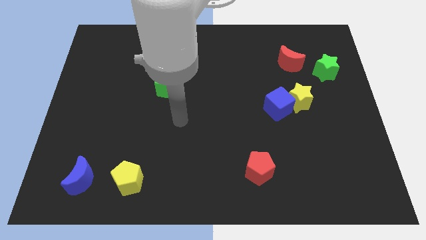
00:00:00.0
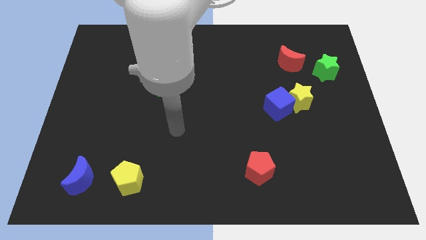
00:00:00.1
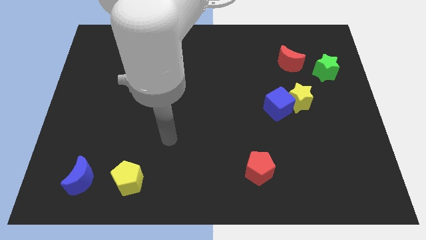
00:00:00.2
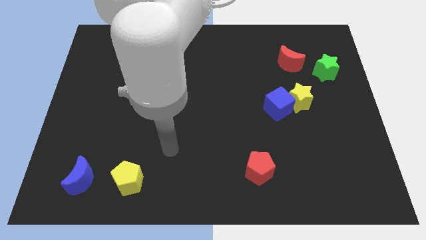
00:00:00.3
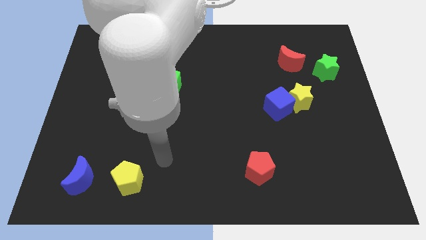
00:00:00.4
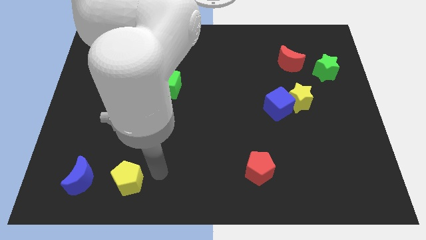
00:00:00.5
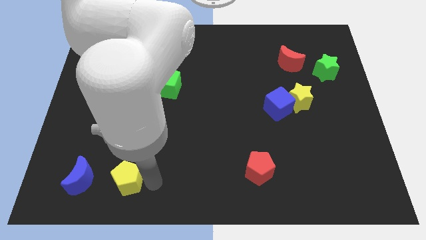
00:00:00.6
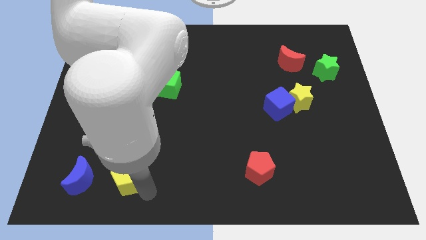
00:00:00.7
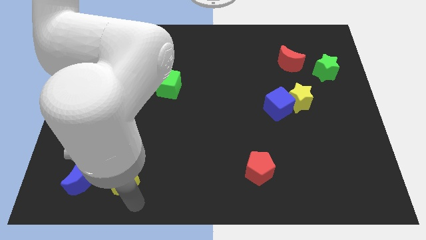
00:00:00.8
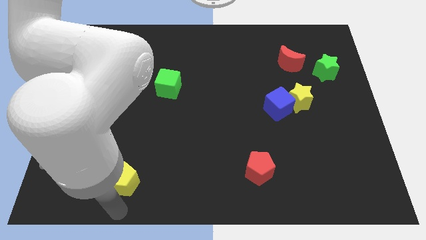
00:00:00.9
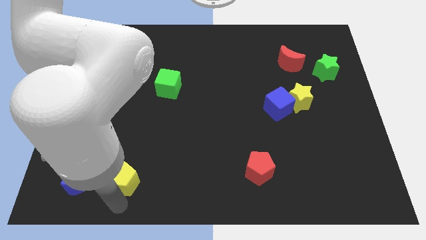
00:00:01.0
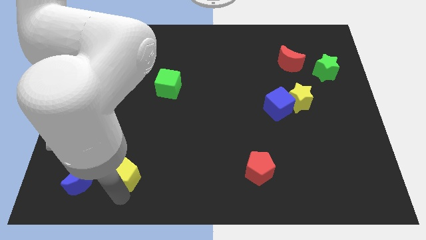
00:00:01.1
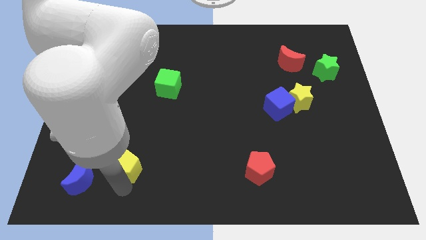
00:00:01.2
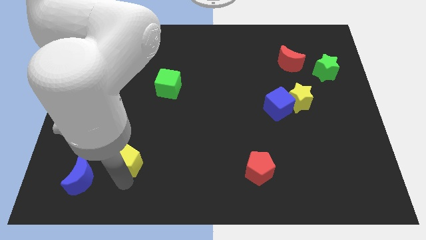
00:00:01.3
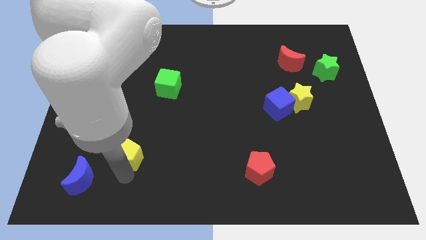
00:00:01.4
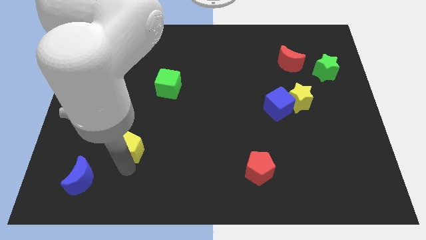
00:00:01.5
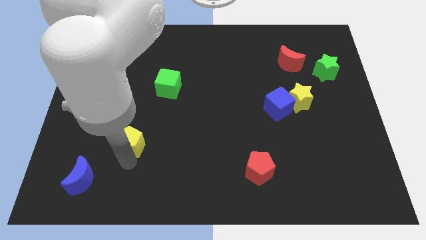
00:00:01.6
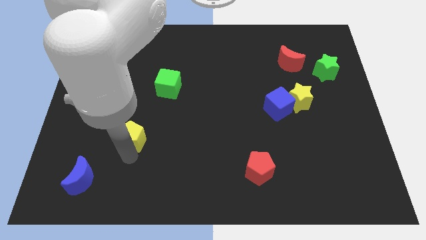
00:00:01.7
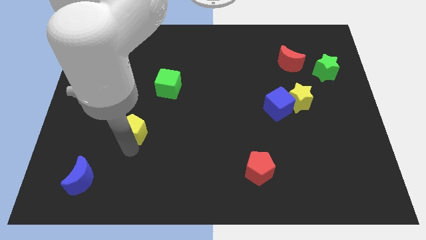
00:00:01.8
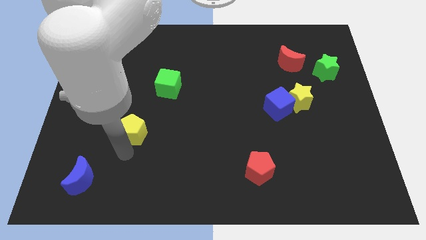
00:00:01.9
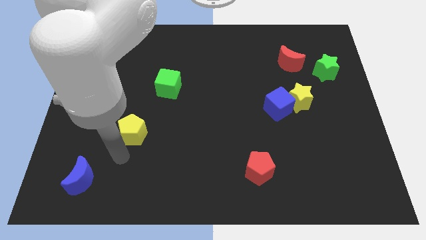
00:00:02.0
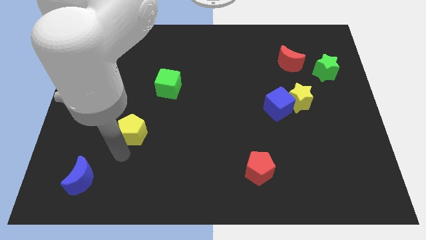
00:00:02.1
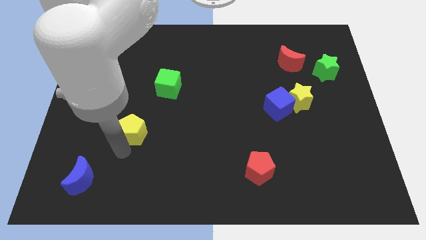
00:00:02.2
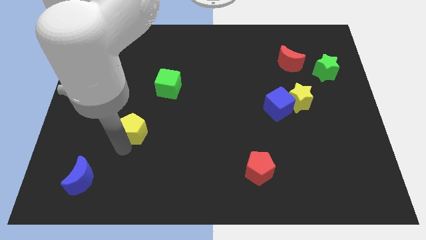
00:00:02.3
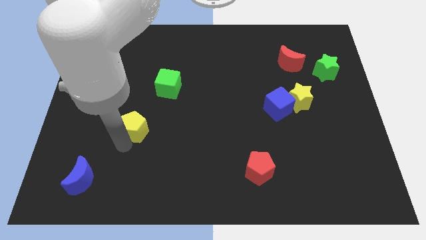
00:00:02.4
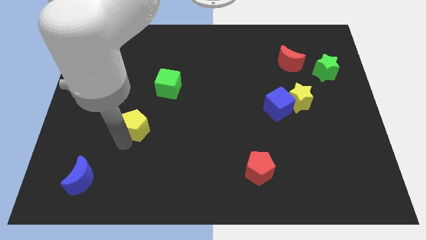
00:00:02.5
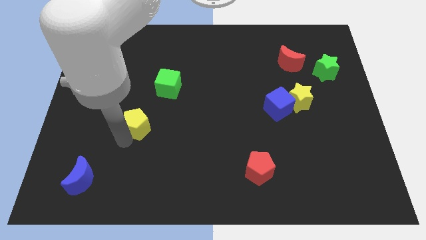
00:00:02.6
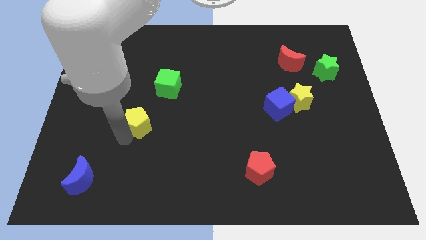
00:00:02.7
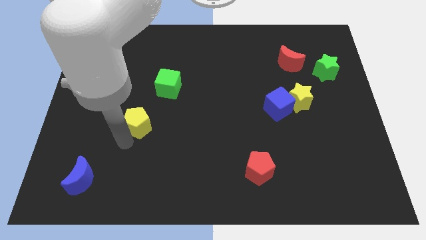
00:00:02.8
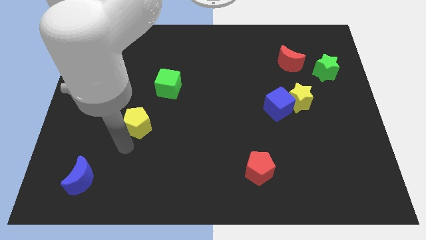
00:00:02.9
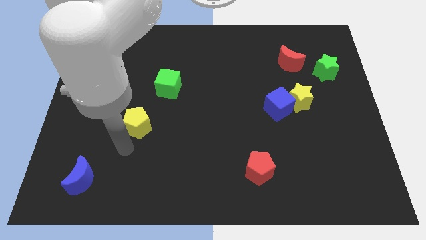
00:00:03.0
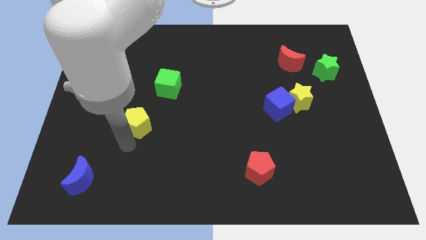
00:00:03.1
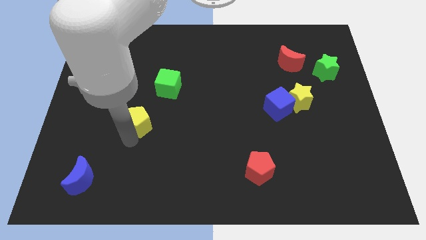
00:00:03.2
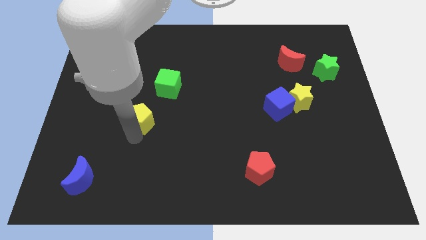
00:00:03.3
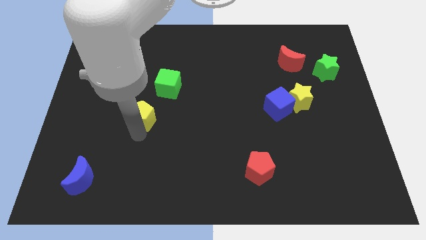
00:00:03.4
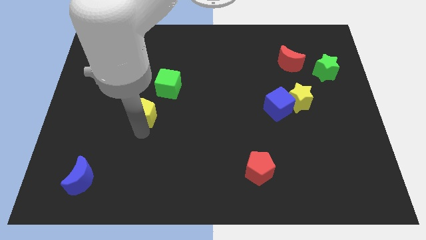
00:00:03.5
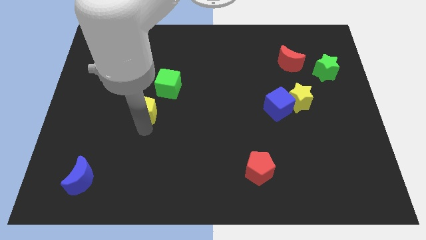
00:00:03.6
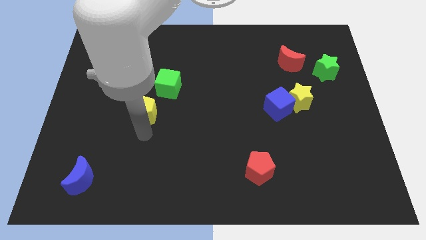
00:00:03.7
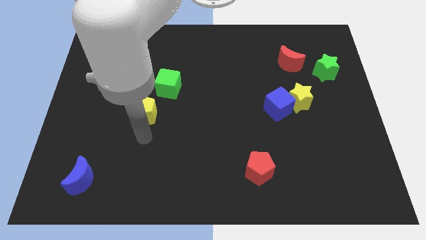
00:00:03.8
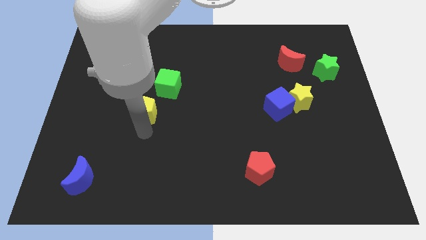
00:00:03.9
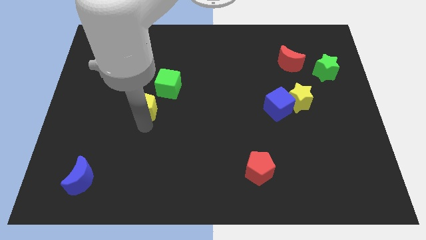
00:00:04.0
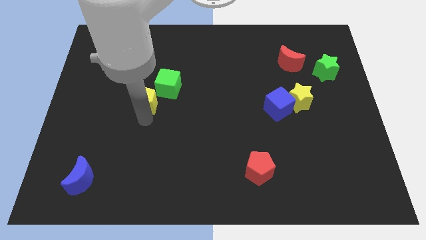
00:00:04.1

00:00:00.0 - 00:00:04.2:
slide the yellow pentagon upwards

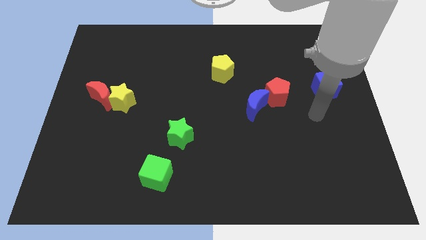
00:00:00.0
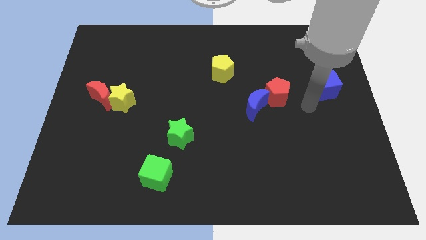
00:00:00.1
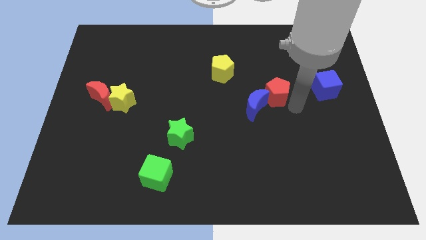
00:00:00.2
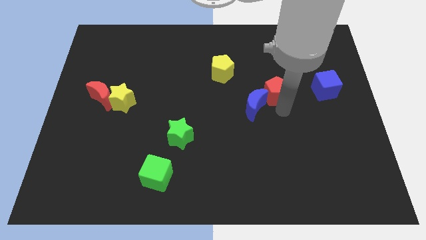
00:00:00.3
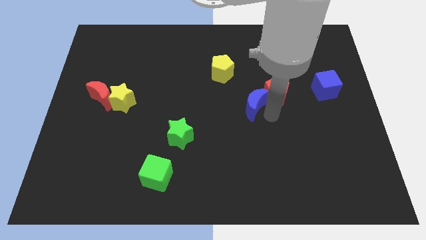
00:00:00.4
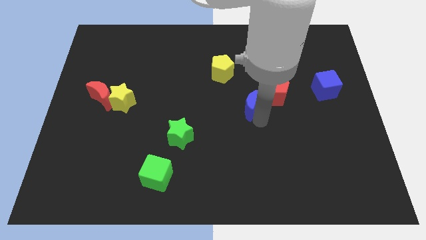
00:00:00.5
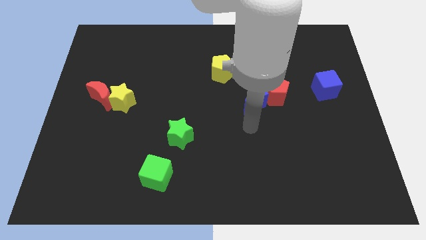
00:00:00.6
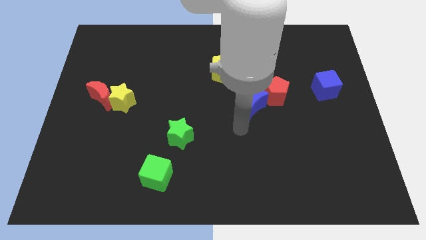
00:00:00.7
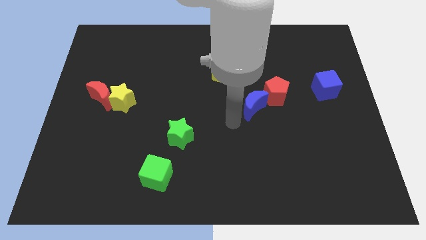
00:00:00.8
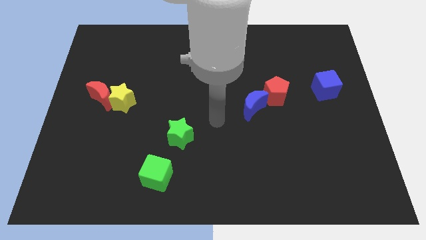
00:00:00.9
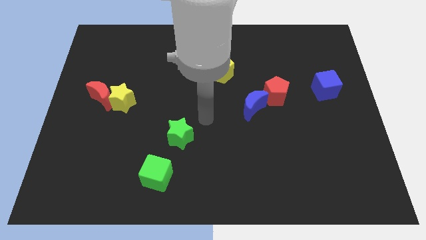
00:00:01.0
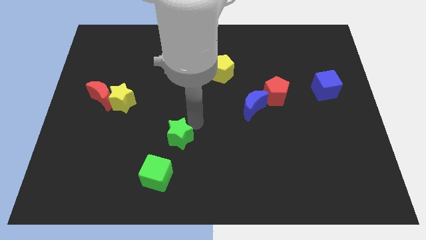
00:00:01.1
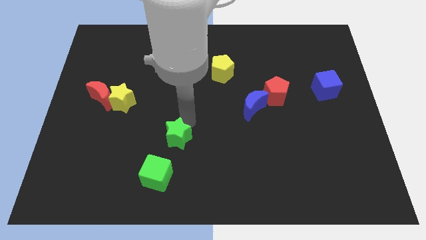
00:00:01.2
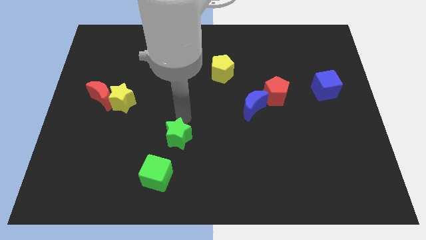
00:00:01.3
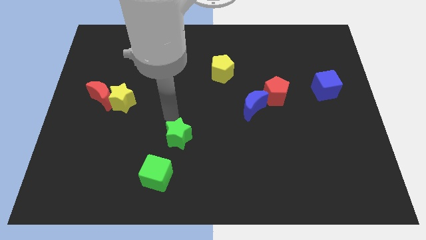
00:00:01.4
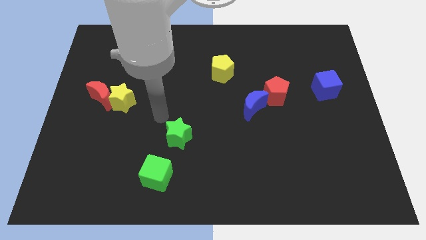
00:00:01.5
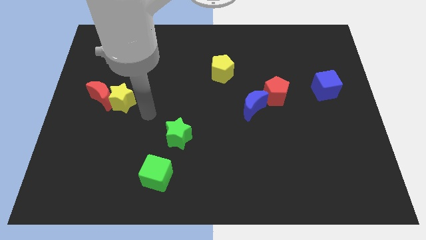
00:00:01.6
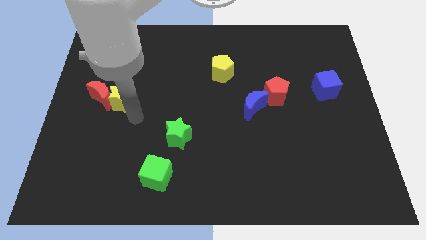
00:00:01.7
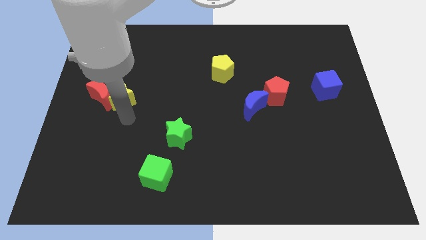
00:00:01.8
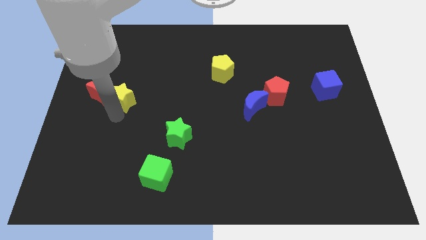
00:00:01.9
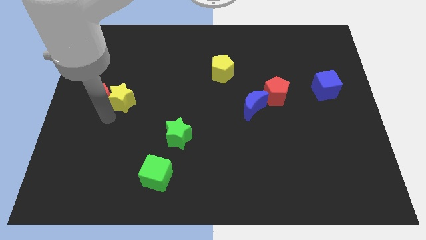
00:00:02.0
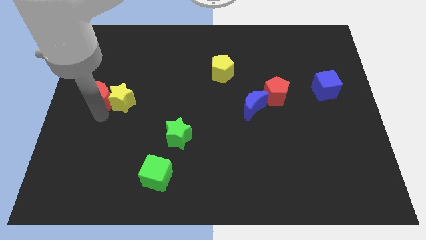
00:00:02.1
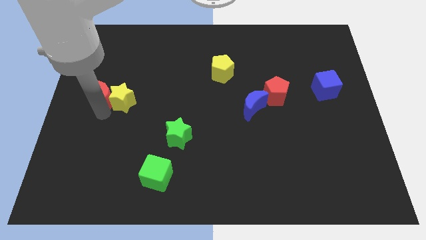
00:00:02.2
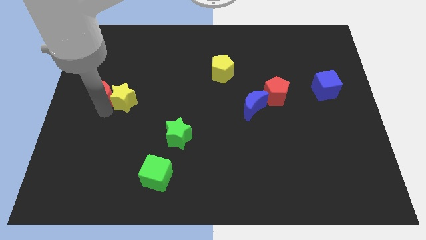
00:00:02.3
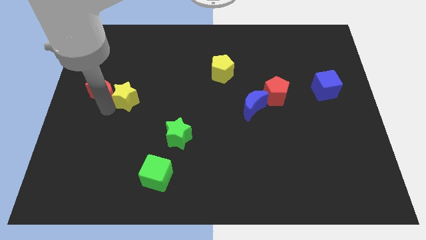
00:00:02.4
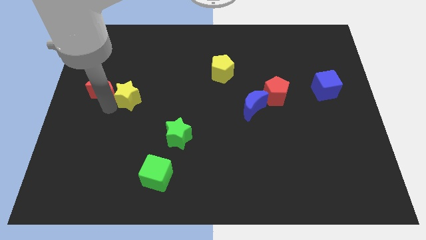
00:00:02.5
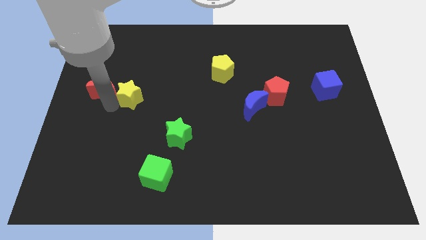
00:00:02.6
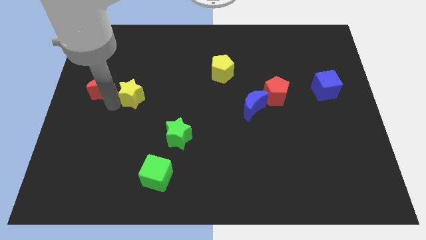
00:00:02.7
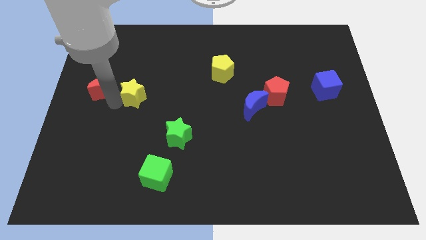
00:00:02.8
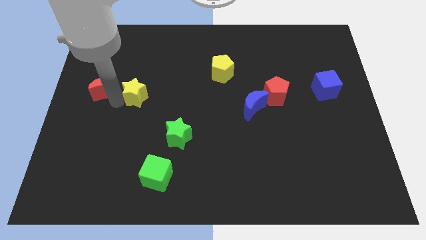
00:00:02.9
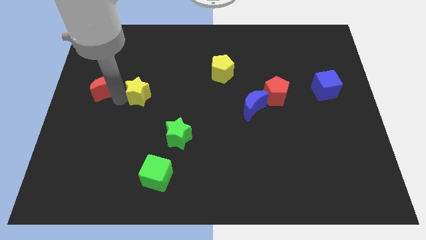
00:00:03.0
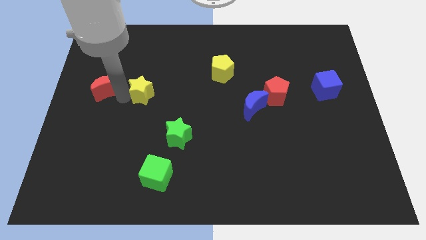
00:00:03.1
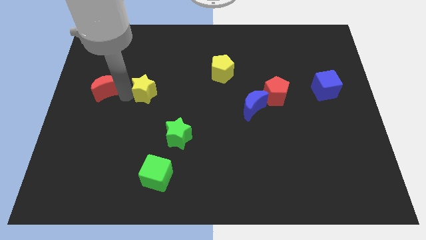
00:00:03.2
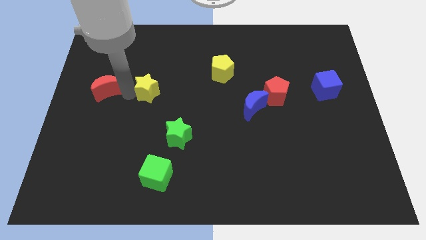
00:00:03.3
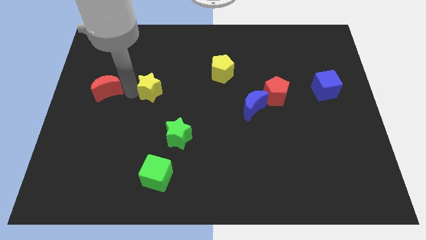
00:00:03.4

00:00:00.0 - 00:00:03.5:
slightly slide the yellow star diagonally upwards and right

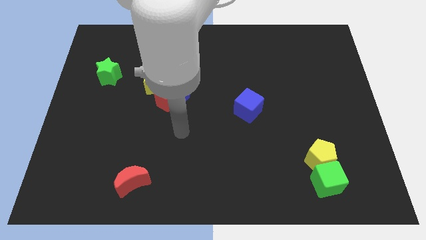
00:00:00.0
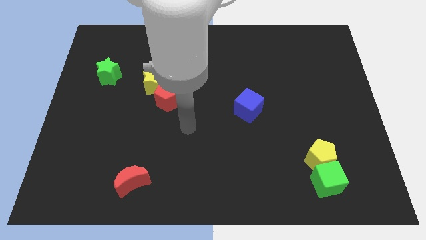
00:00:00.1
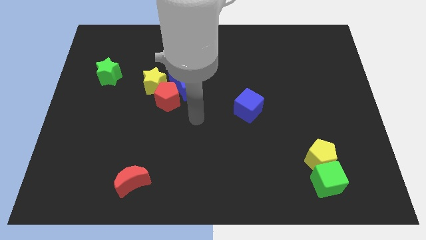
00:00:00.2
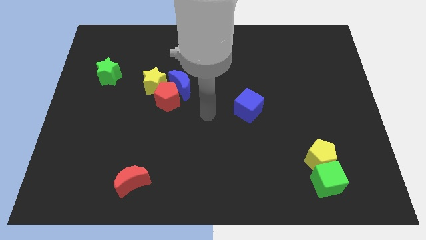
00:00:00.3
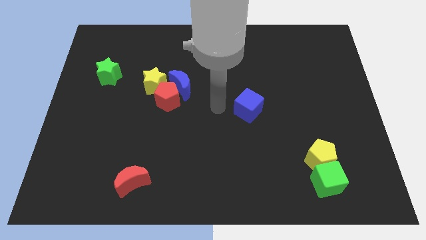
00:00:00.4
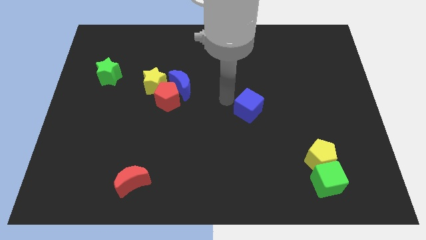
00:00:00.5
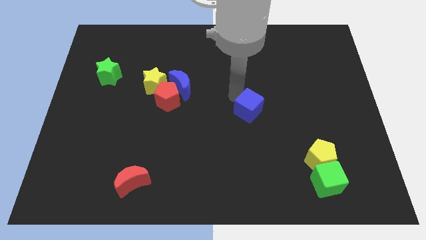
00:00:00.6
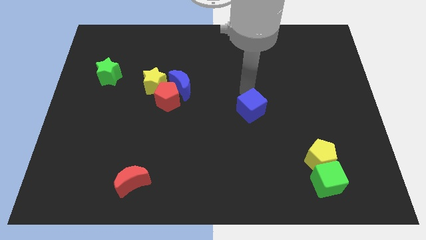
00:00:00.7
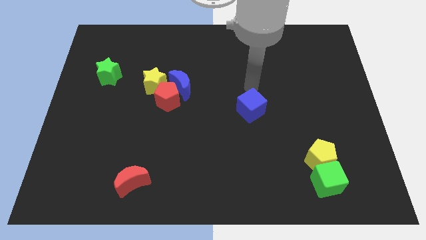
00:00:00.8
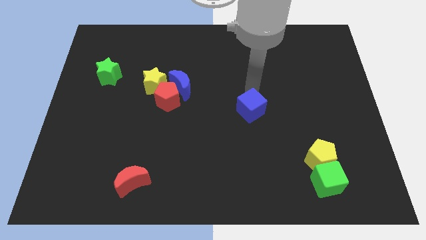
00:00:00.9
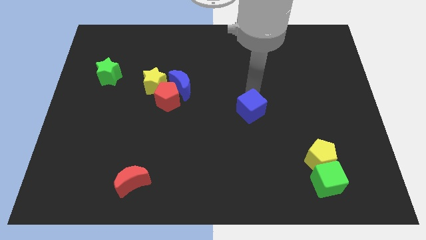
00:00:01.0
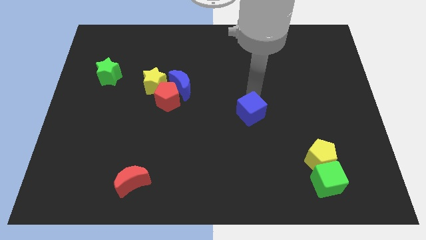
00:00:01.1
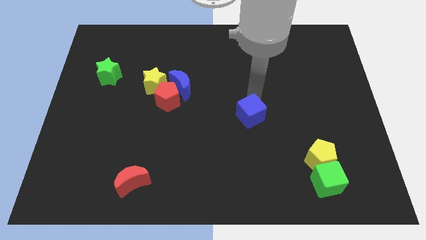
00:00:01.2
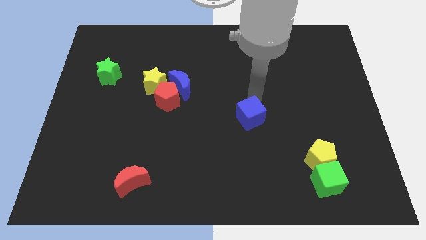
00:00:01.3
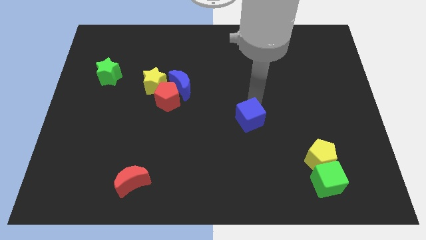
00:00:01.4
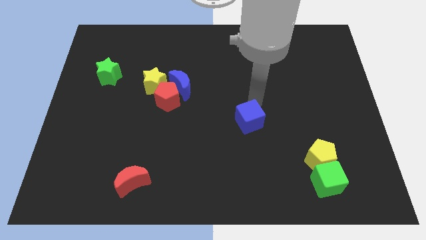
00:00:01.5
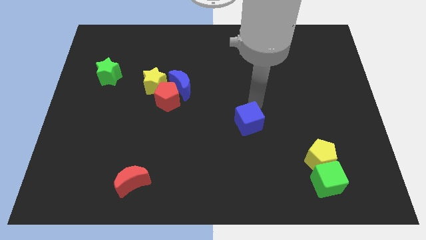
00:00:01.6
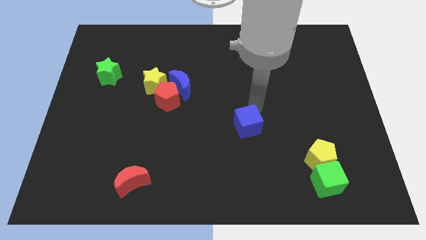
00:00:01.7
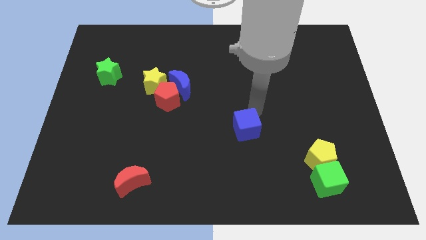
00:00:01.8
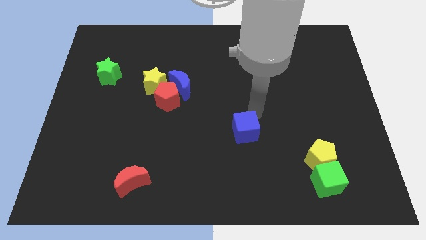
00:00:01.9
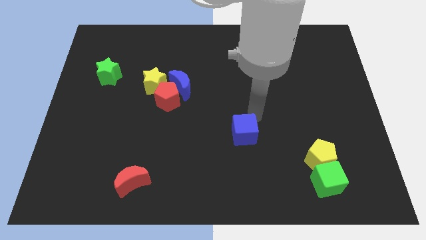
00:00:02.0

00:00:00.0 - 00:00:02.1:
move the blue cube down somewhat
